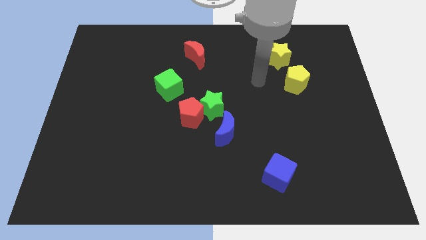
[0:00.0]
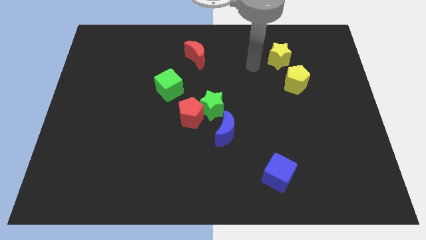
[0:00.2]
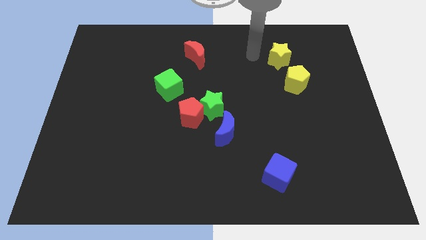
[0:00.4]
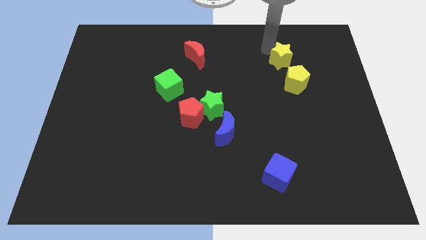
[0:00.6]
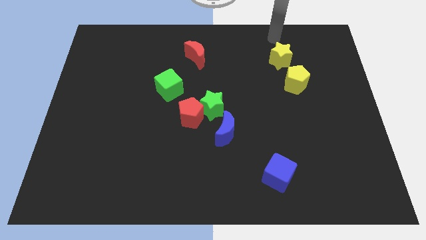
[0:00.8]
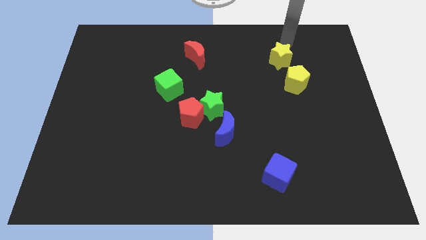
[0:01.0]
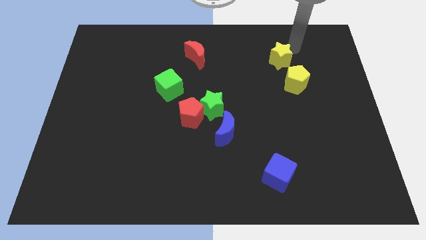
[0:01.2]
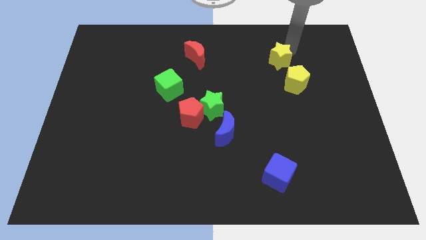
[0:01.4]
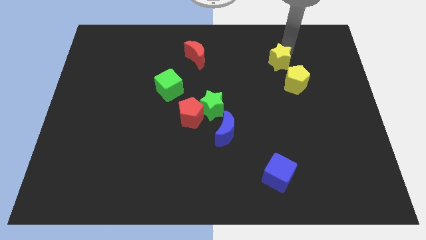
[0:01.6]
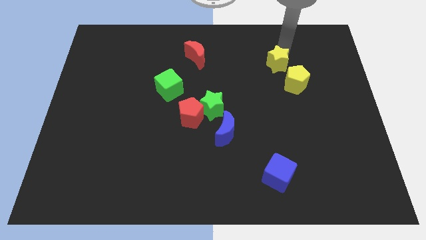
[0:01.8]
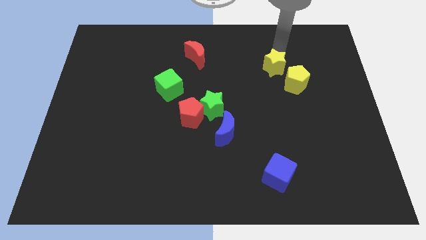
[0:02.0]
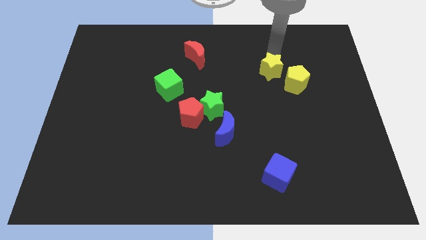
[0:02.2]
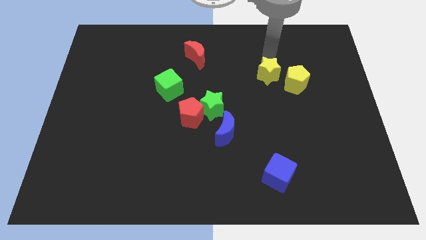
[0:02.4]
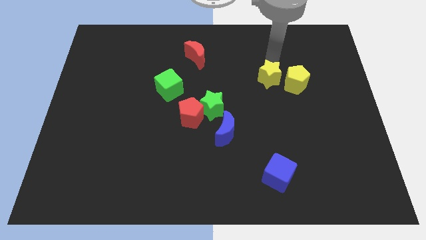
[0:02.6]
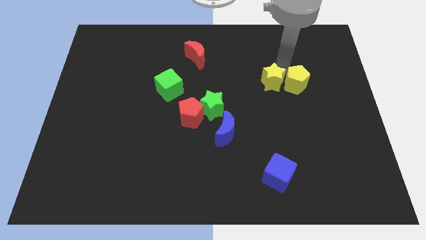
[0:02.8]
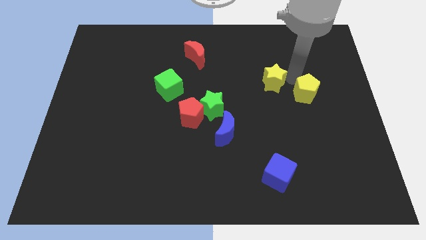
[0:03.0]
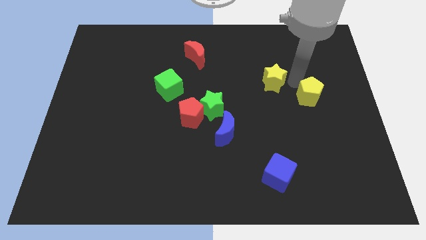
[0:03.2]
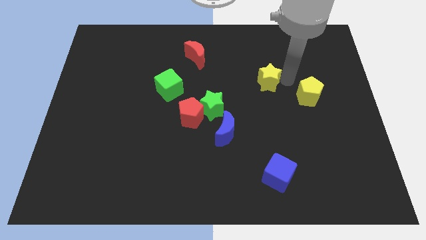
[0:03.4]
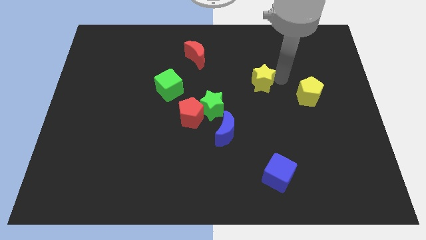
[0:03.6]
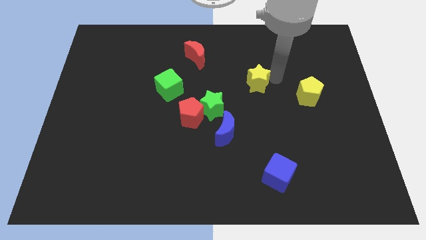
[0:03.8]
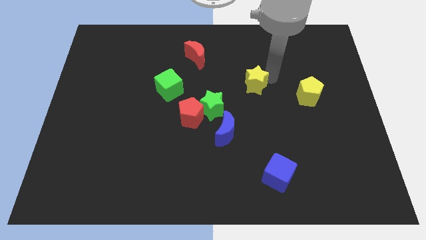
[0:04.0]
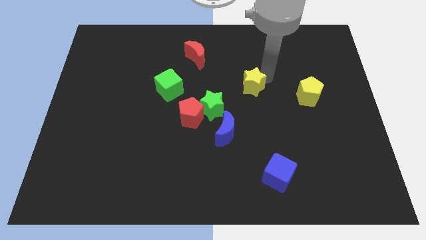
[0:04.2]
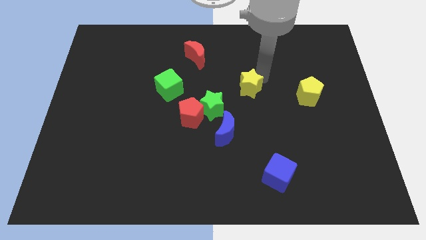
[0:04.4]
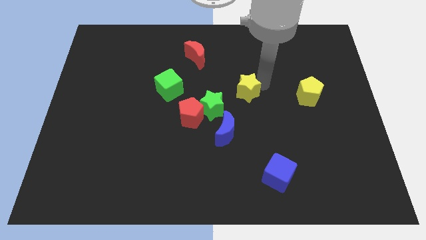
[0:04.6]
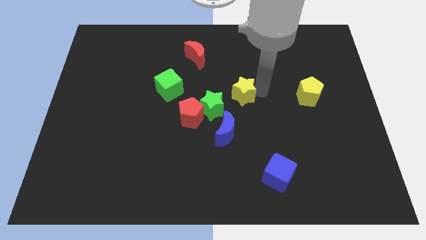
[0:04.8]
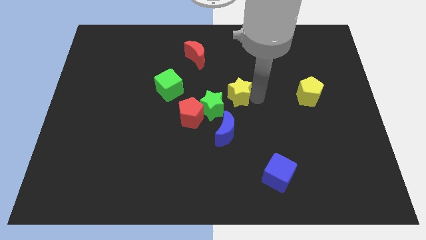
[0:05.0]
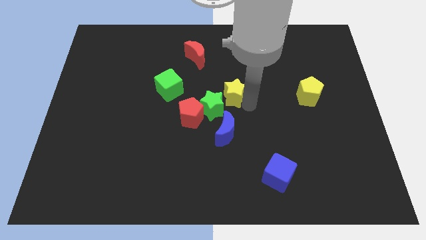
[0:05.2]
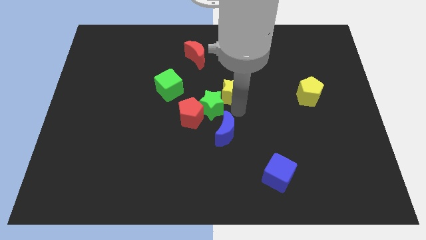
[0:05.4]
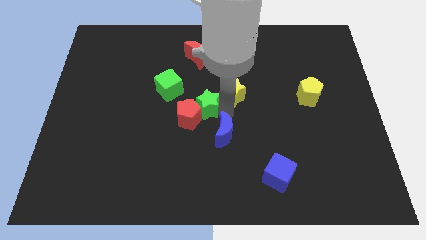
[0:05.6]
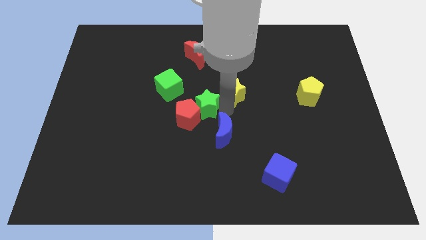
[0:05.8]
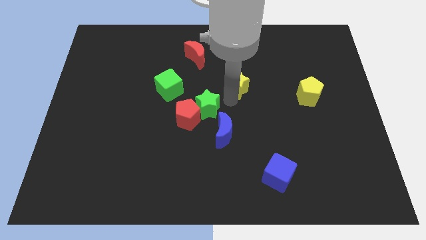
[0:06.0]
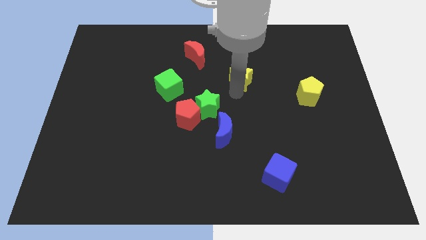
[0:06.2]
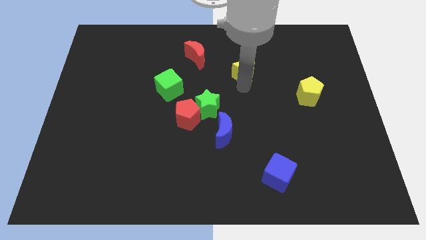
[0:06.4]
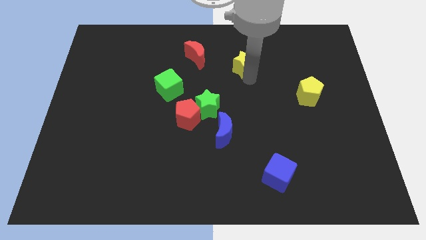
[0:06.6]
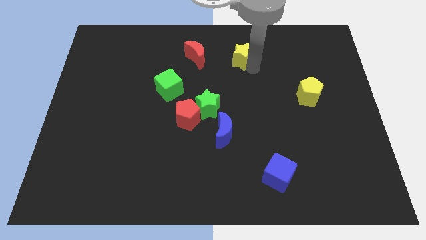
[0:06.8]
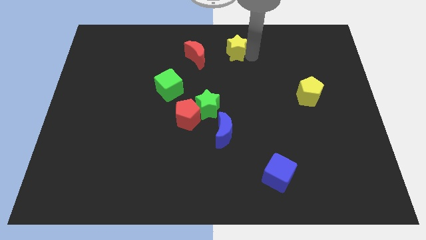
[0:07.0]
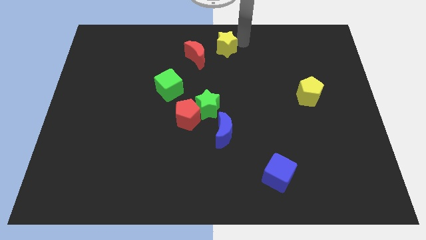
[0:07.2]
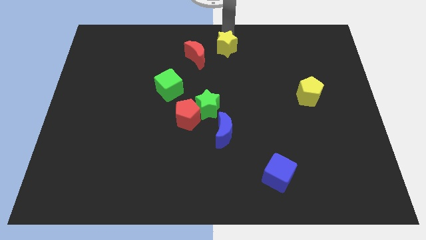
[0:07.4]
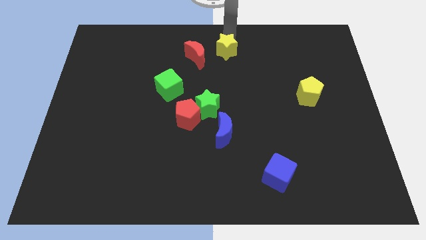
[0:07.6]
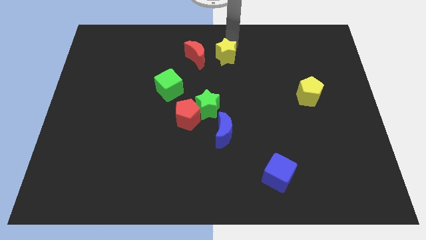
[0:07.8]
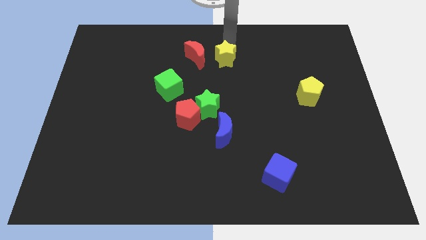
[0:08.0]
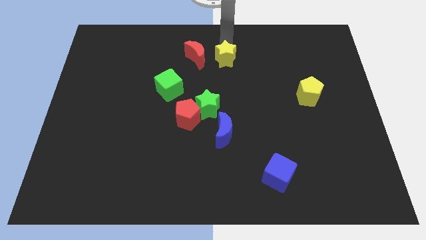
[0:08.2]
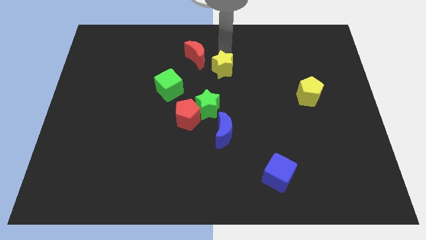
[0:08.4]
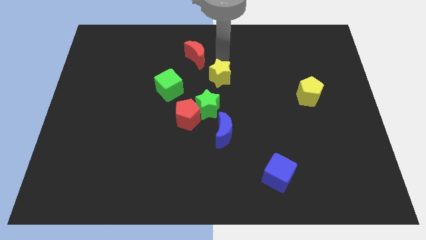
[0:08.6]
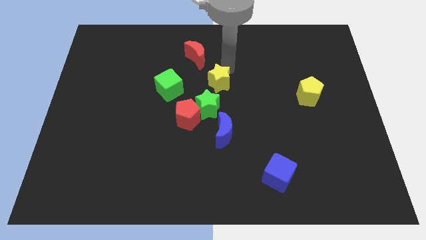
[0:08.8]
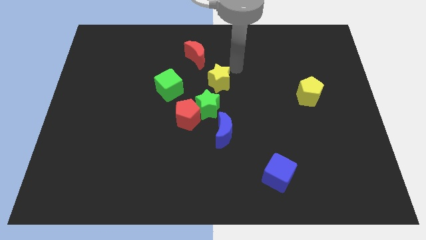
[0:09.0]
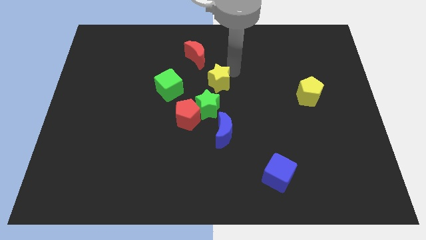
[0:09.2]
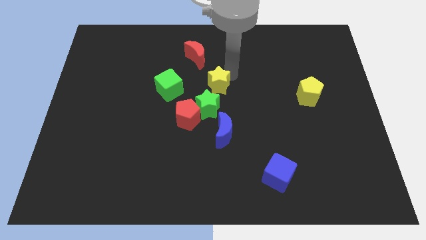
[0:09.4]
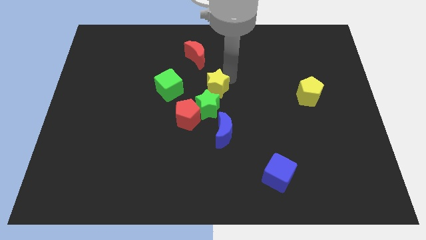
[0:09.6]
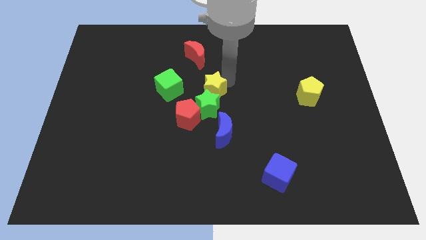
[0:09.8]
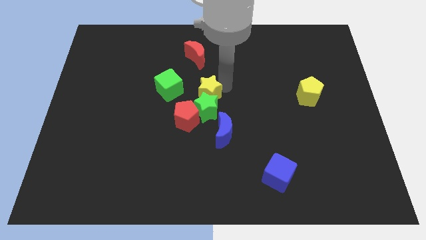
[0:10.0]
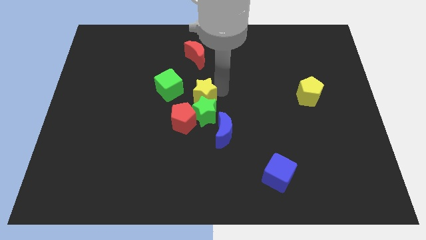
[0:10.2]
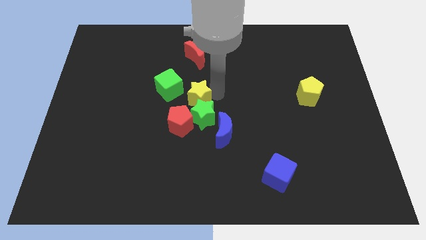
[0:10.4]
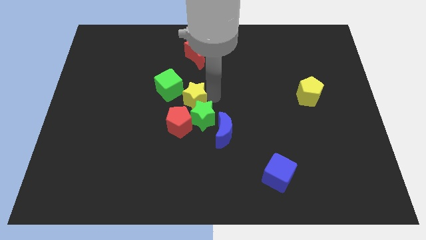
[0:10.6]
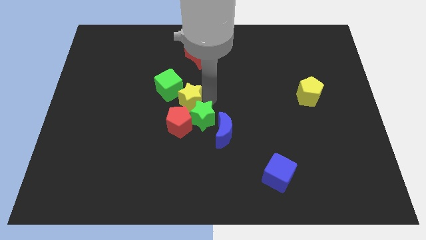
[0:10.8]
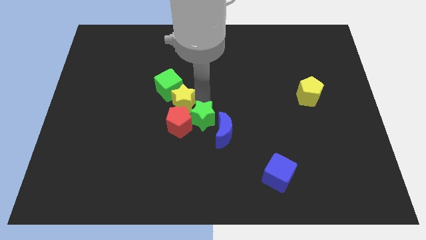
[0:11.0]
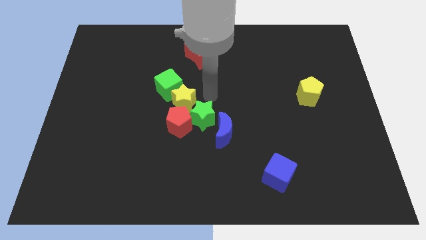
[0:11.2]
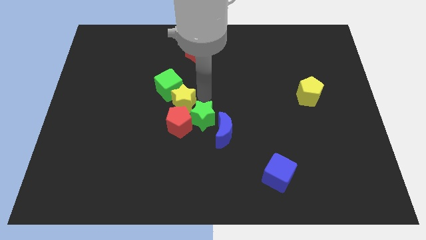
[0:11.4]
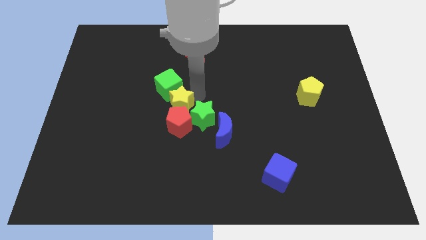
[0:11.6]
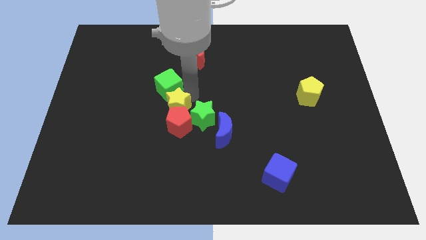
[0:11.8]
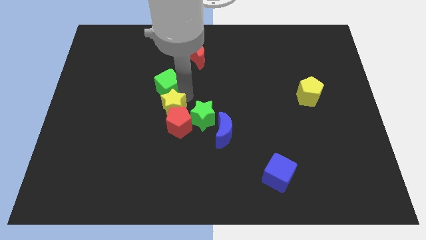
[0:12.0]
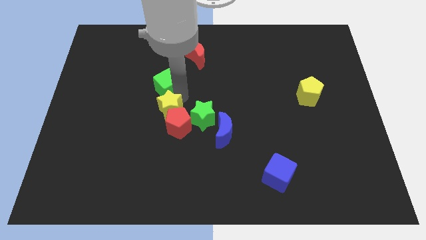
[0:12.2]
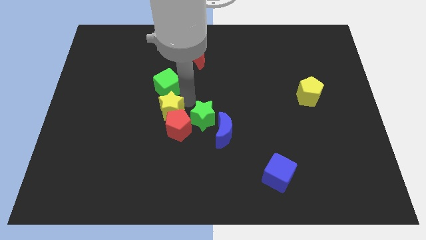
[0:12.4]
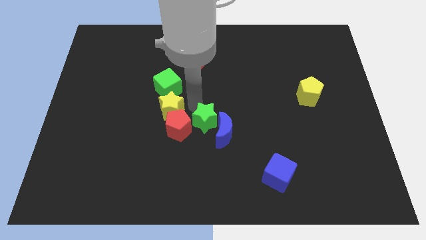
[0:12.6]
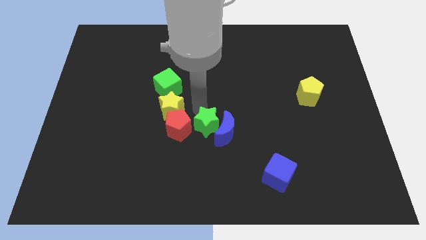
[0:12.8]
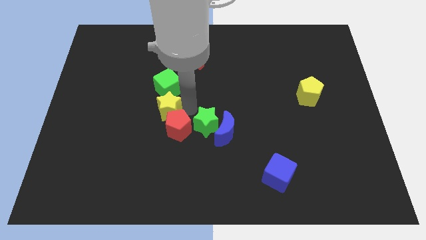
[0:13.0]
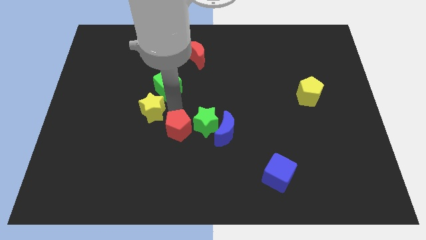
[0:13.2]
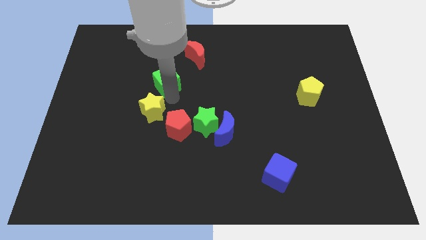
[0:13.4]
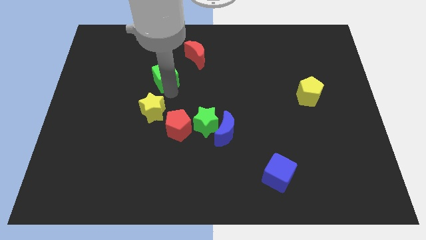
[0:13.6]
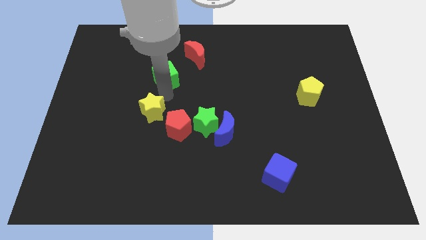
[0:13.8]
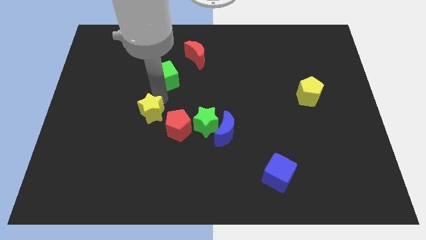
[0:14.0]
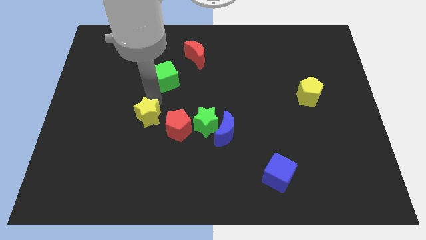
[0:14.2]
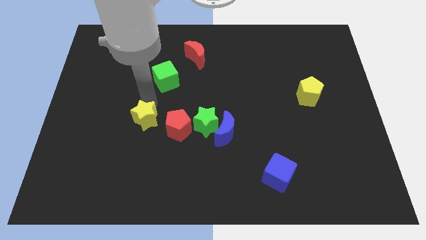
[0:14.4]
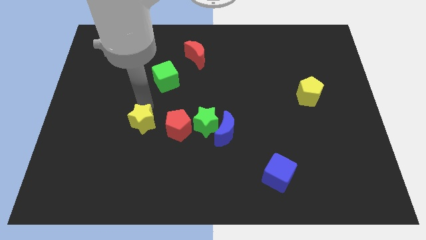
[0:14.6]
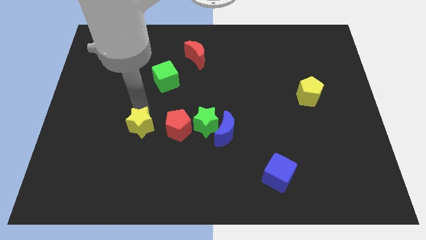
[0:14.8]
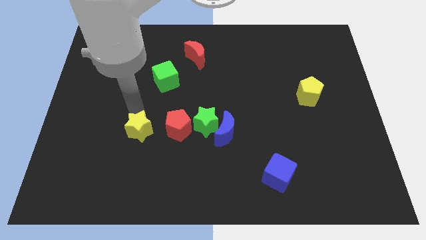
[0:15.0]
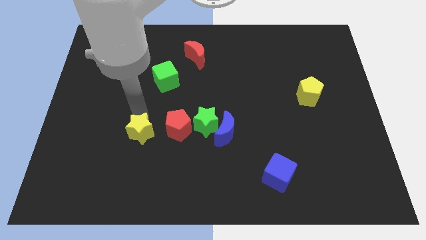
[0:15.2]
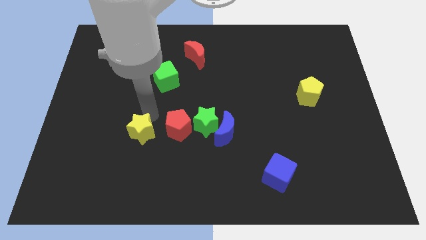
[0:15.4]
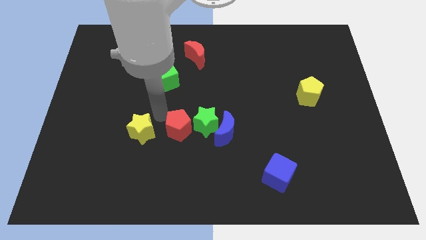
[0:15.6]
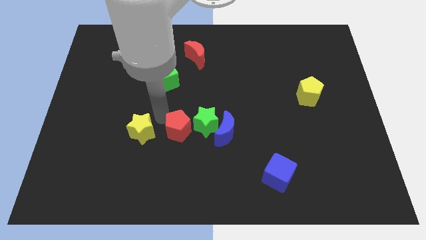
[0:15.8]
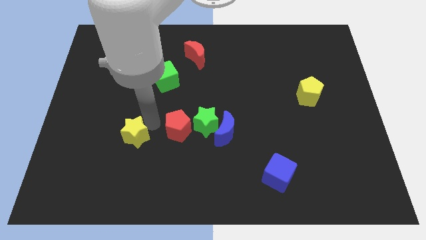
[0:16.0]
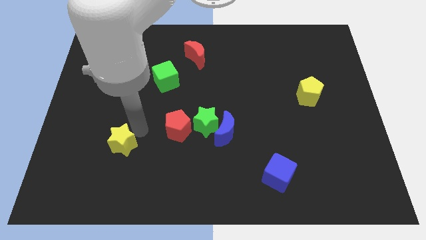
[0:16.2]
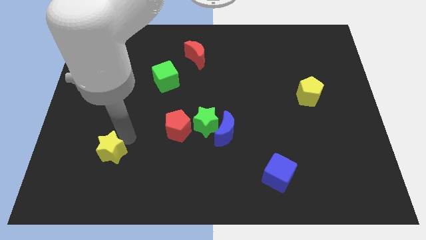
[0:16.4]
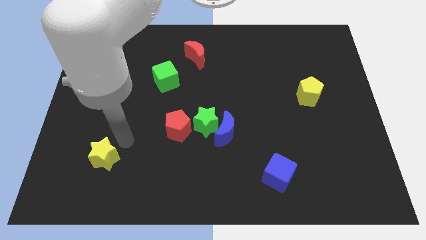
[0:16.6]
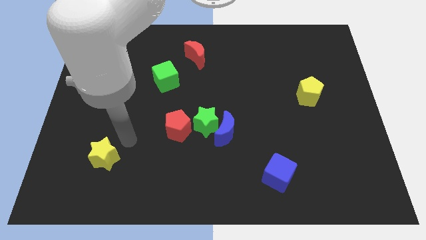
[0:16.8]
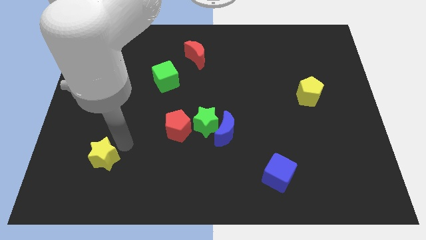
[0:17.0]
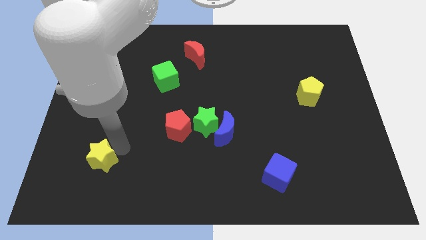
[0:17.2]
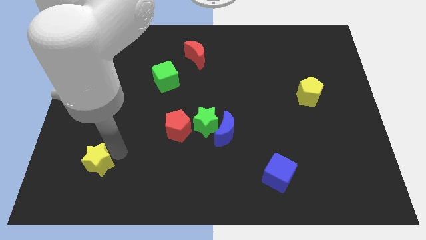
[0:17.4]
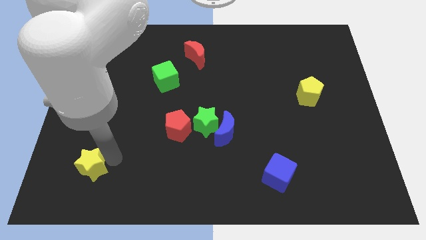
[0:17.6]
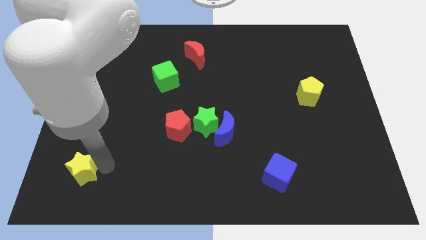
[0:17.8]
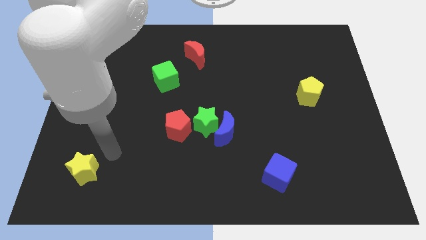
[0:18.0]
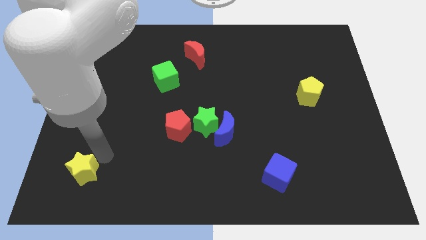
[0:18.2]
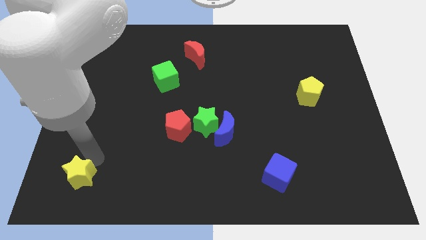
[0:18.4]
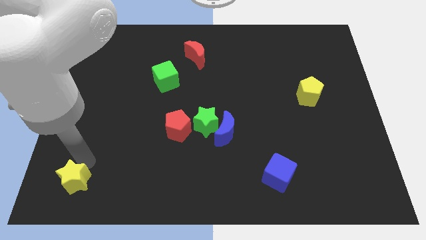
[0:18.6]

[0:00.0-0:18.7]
slide the yellow star to the lower left corner
